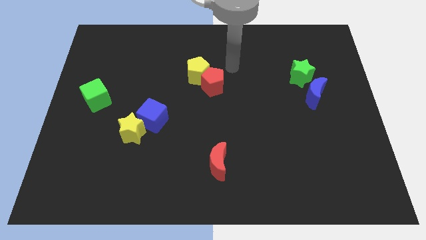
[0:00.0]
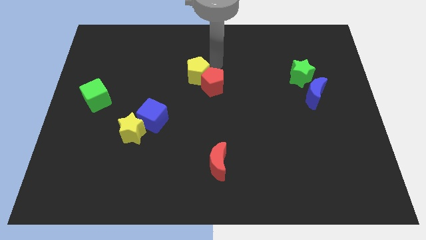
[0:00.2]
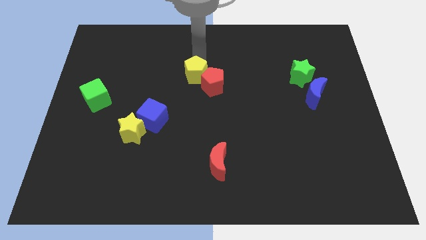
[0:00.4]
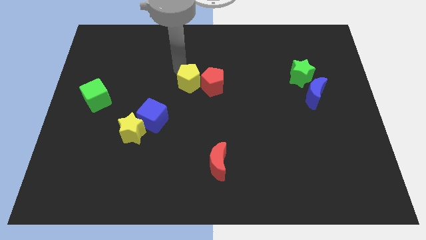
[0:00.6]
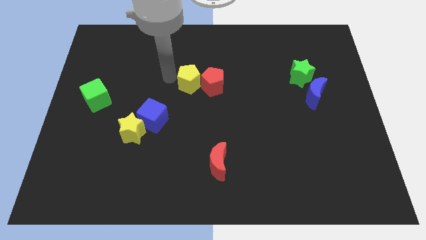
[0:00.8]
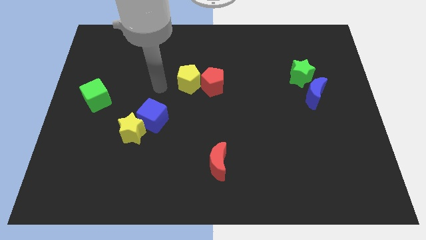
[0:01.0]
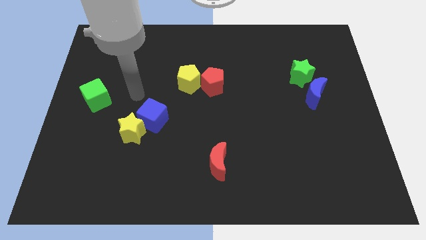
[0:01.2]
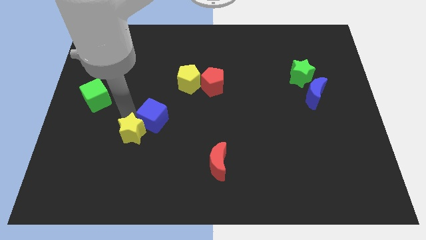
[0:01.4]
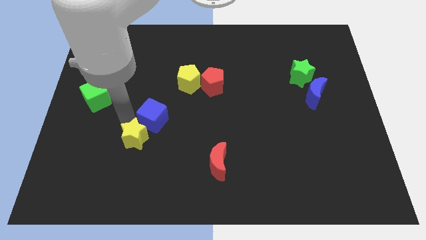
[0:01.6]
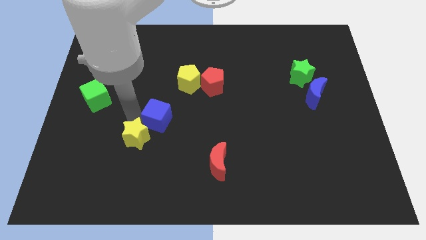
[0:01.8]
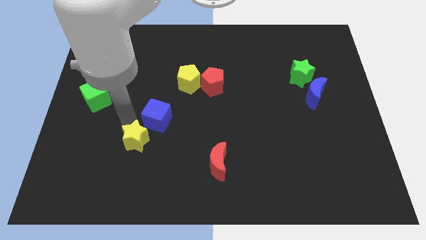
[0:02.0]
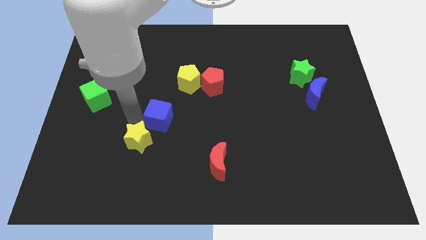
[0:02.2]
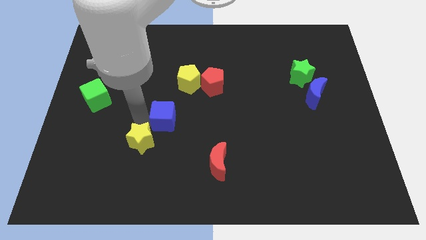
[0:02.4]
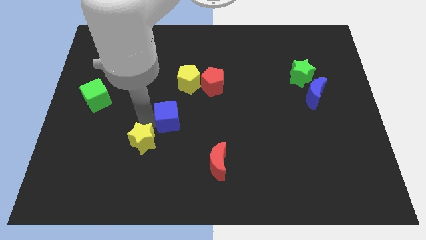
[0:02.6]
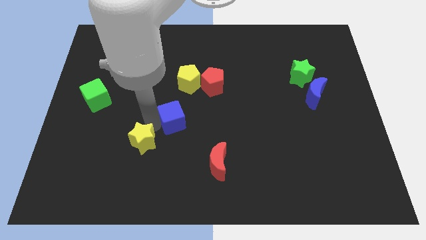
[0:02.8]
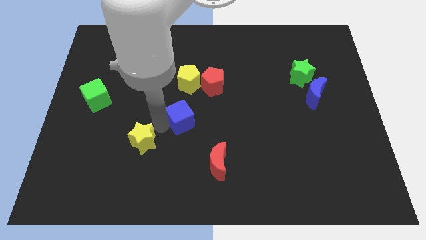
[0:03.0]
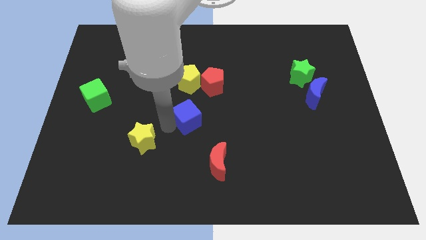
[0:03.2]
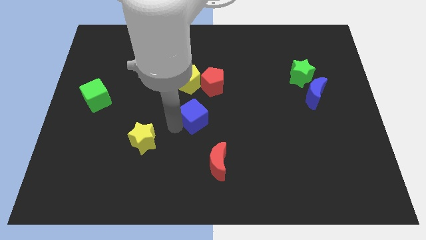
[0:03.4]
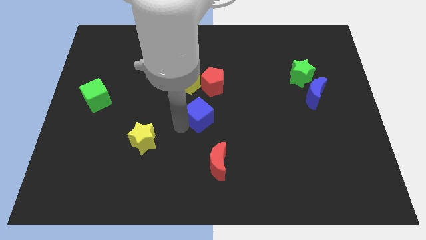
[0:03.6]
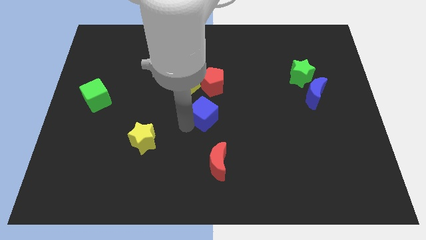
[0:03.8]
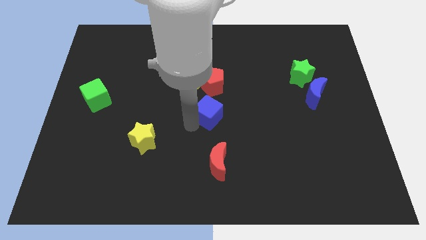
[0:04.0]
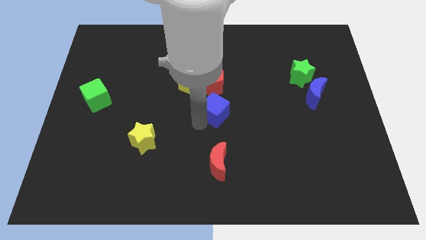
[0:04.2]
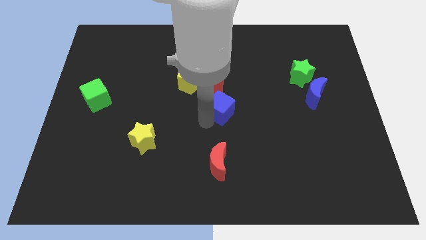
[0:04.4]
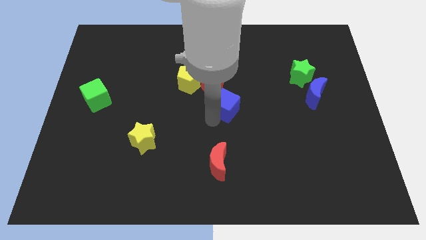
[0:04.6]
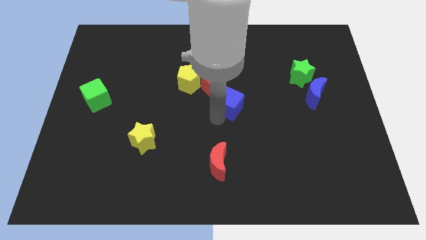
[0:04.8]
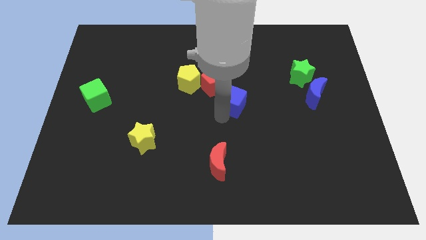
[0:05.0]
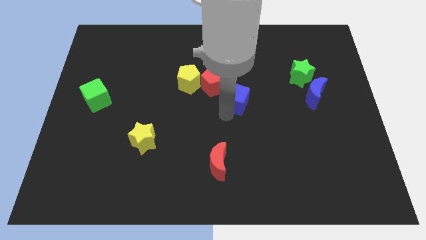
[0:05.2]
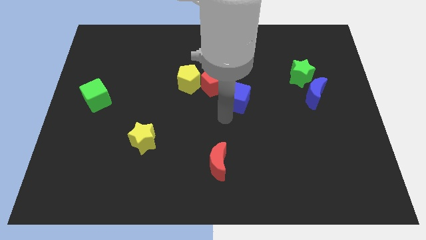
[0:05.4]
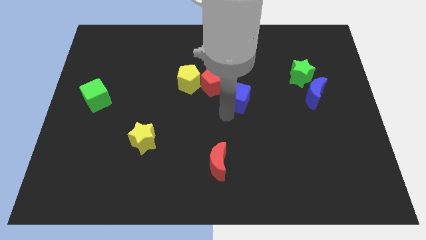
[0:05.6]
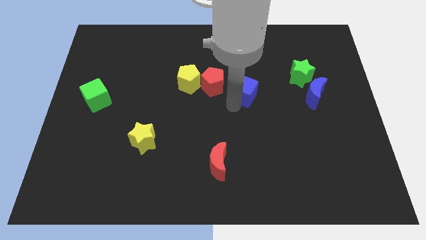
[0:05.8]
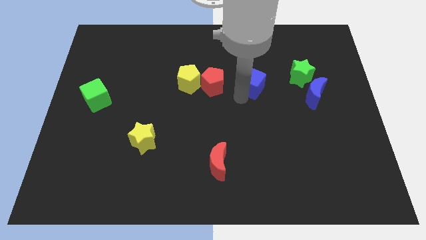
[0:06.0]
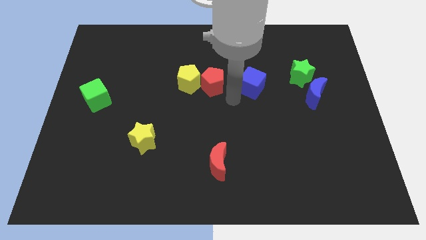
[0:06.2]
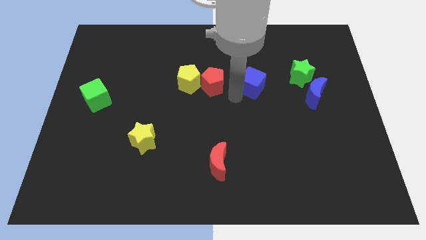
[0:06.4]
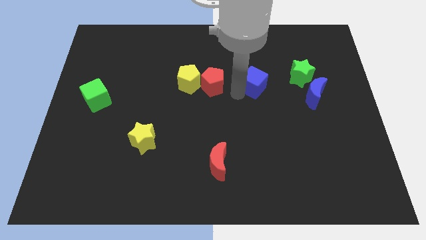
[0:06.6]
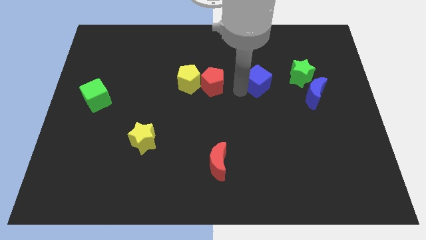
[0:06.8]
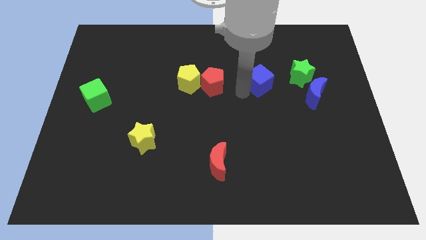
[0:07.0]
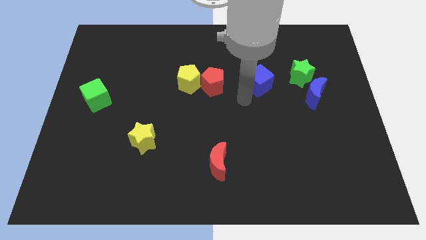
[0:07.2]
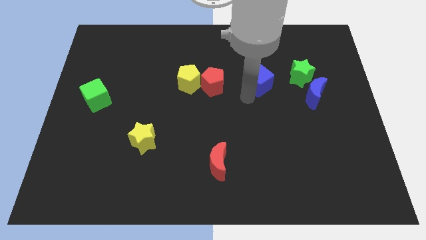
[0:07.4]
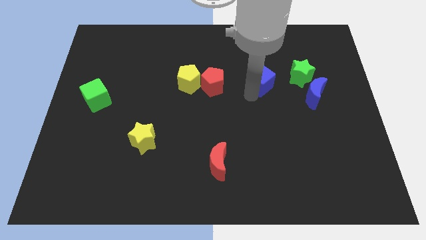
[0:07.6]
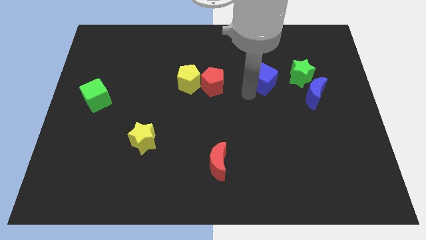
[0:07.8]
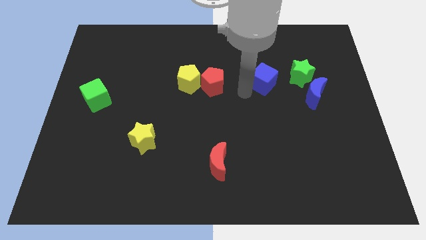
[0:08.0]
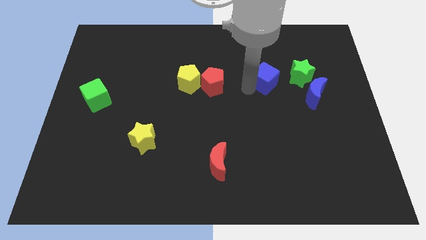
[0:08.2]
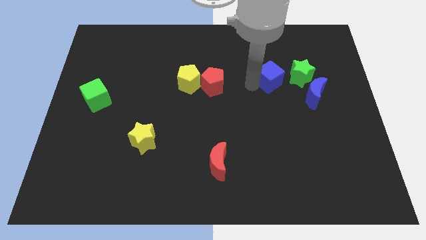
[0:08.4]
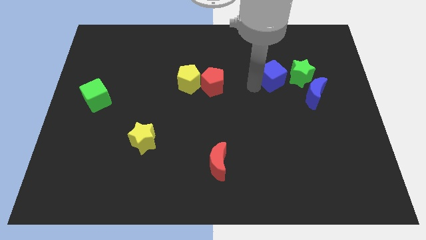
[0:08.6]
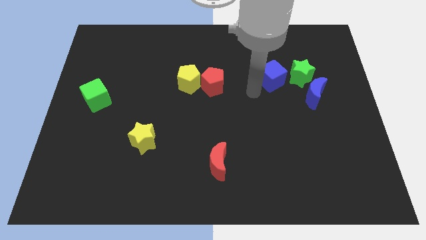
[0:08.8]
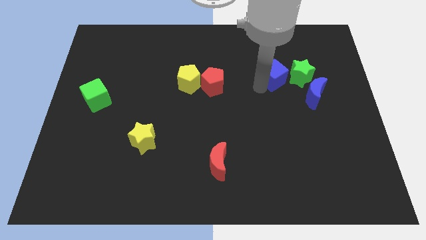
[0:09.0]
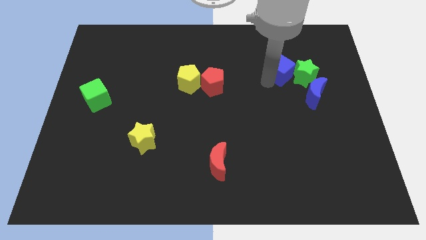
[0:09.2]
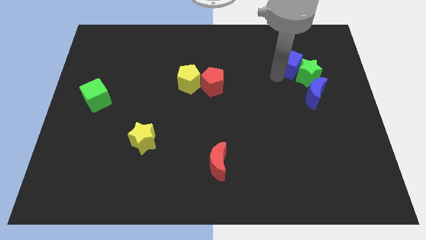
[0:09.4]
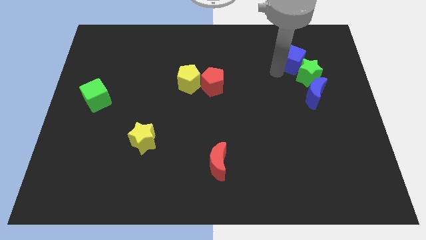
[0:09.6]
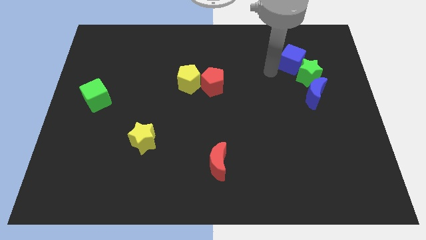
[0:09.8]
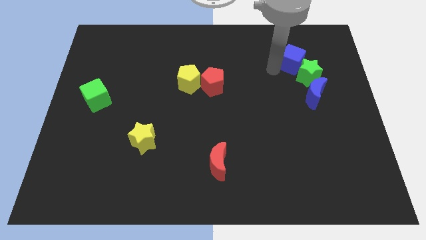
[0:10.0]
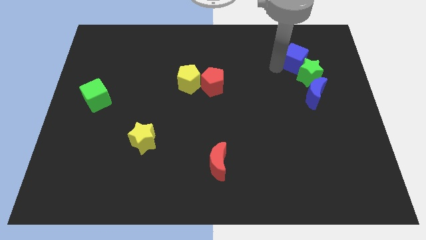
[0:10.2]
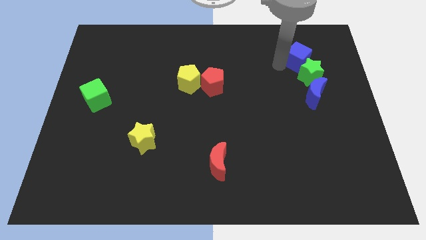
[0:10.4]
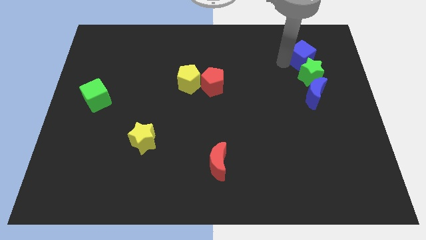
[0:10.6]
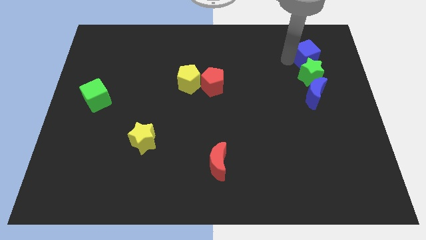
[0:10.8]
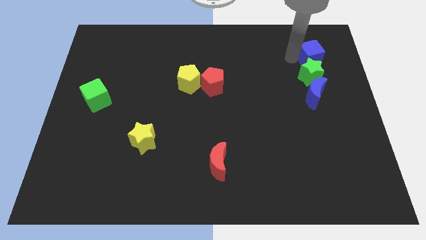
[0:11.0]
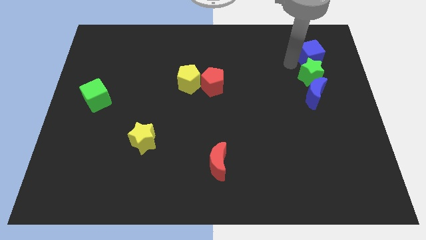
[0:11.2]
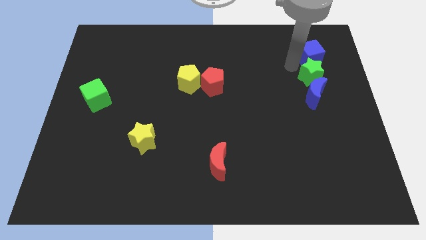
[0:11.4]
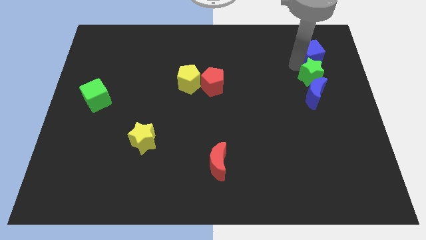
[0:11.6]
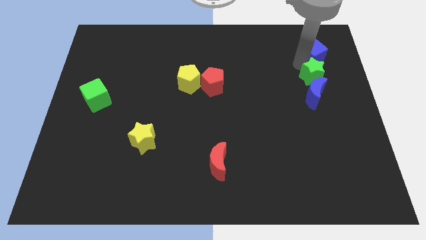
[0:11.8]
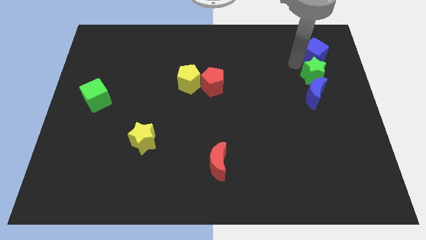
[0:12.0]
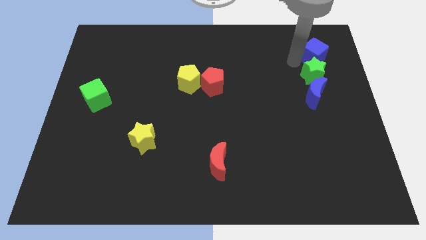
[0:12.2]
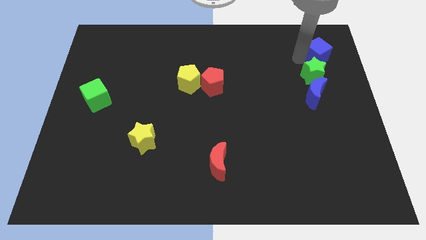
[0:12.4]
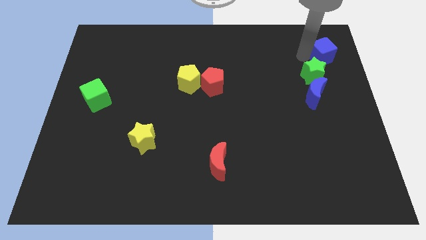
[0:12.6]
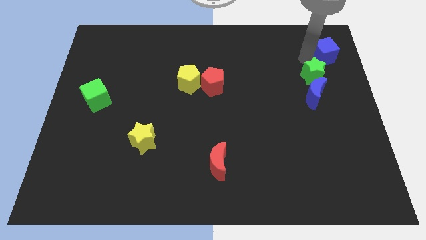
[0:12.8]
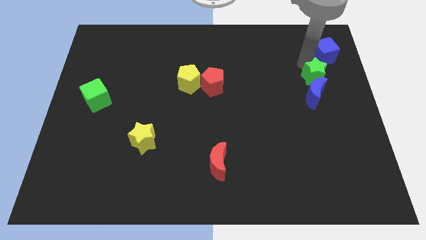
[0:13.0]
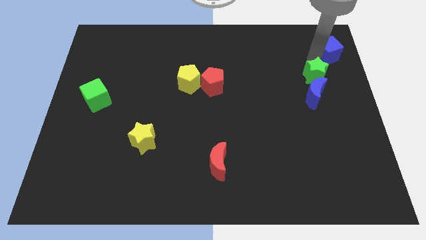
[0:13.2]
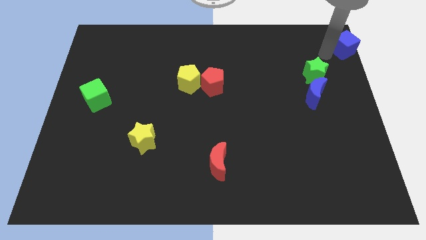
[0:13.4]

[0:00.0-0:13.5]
push the blue cube to the top right corner
